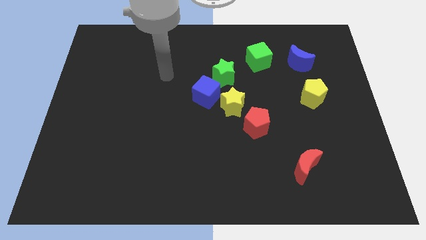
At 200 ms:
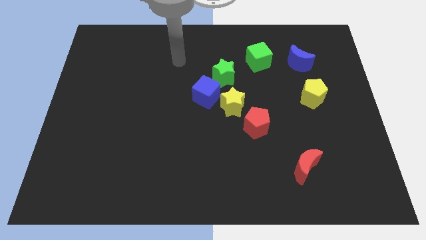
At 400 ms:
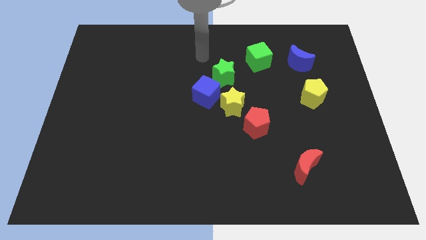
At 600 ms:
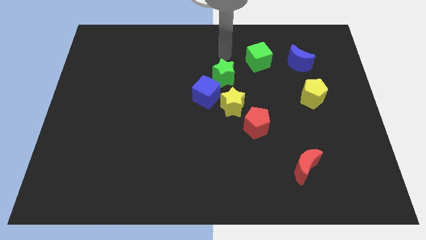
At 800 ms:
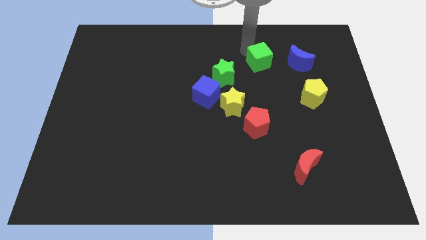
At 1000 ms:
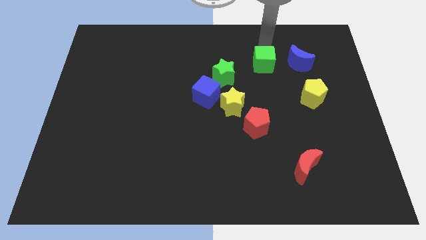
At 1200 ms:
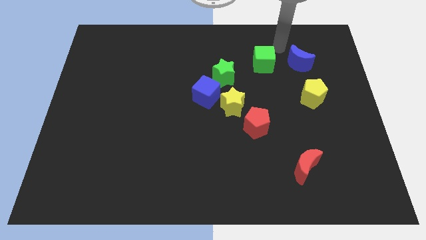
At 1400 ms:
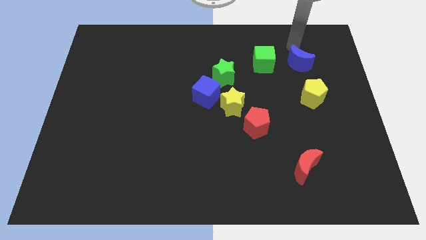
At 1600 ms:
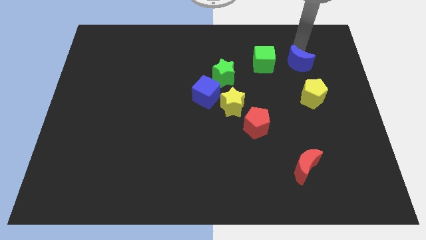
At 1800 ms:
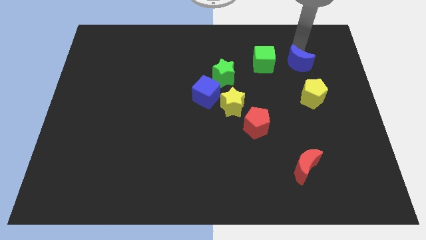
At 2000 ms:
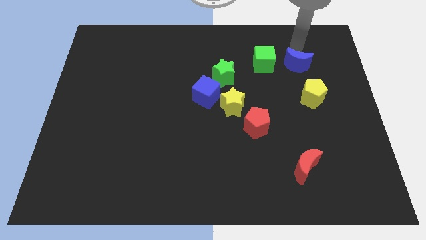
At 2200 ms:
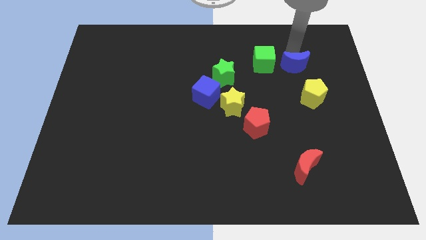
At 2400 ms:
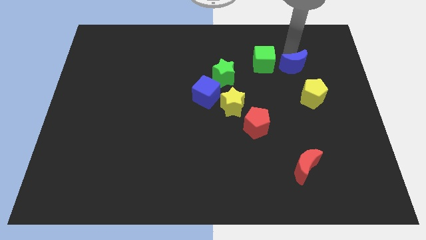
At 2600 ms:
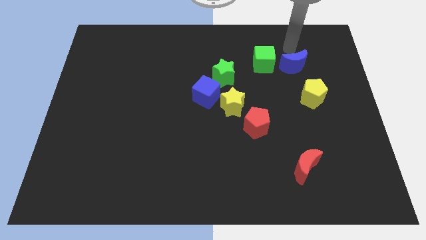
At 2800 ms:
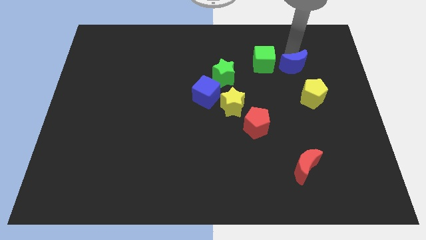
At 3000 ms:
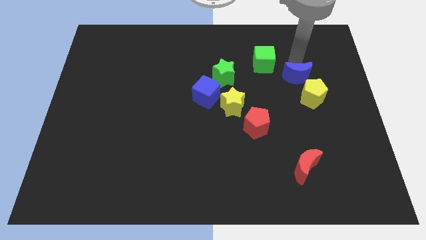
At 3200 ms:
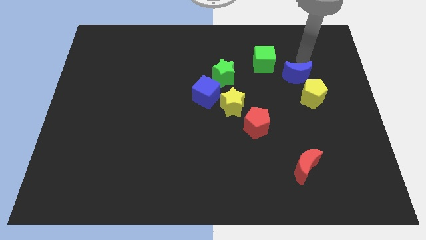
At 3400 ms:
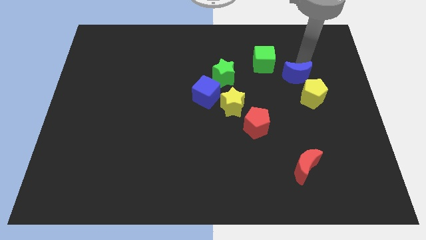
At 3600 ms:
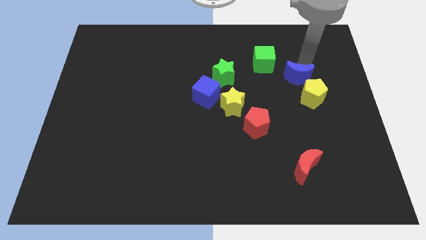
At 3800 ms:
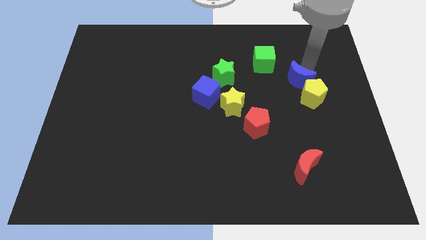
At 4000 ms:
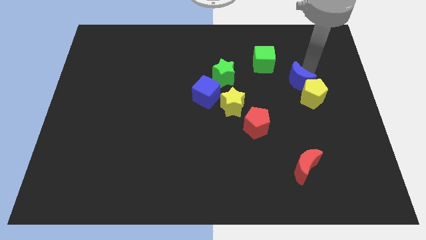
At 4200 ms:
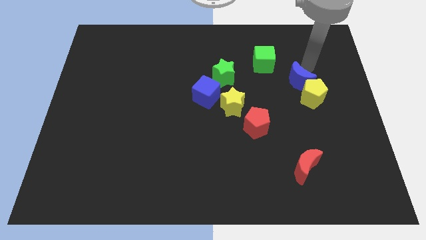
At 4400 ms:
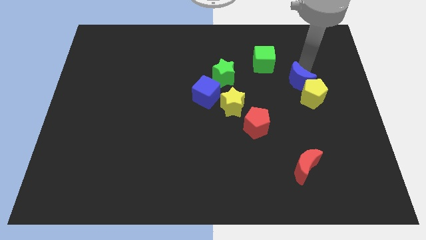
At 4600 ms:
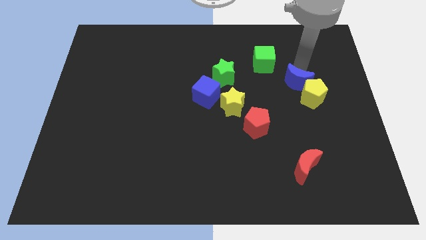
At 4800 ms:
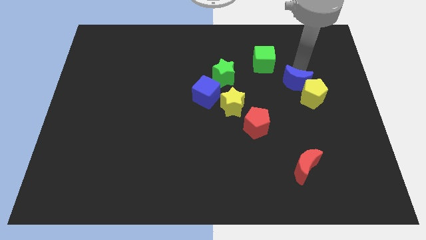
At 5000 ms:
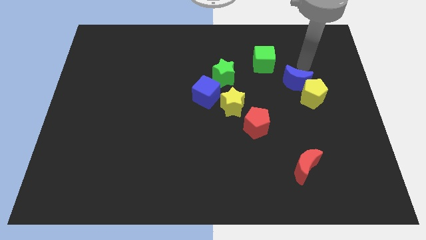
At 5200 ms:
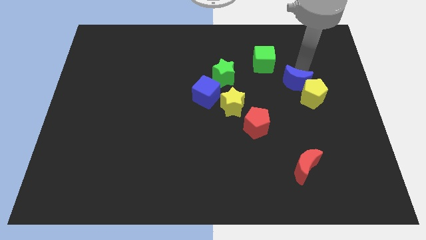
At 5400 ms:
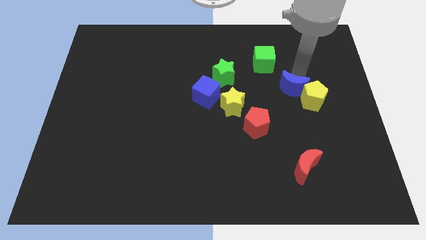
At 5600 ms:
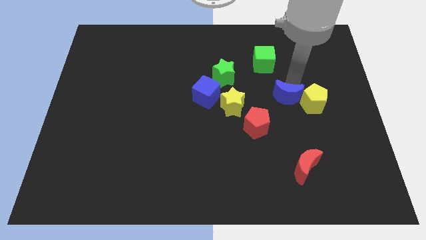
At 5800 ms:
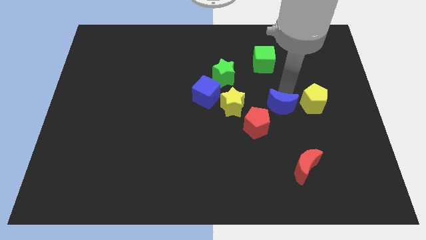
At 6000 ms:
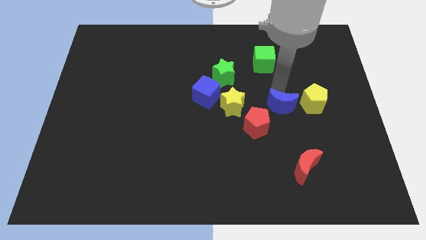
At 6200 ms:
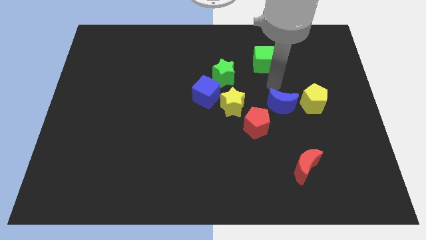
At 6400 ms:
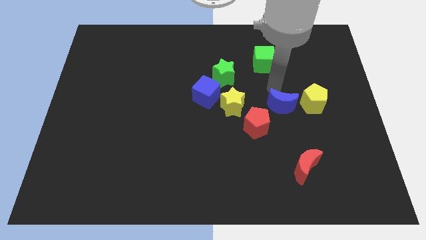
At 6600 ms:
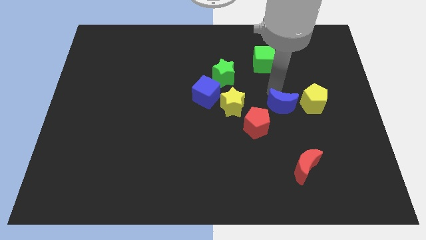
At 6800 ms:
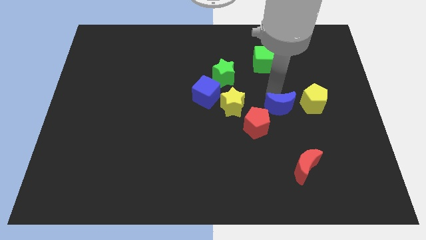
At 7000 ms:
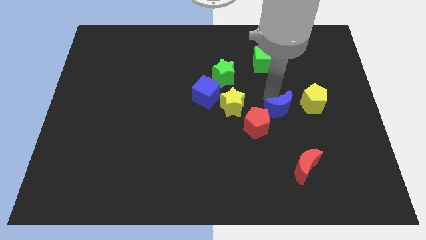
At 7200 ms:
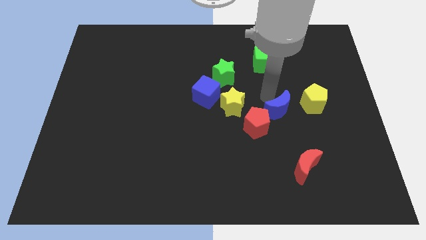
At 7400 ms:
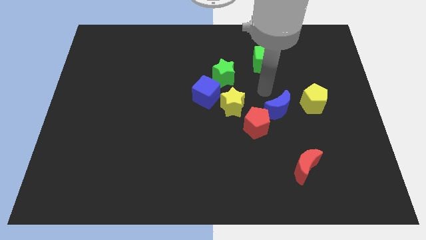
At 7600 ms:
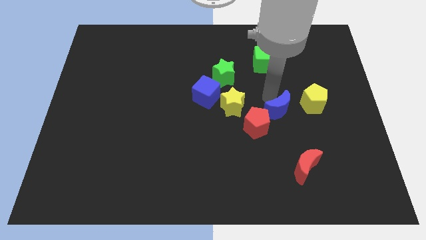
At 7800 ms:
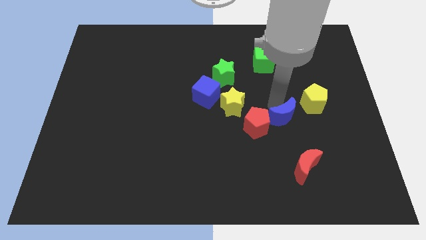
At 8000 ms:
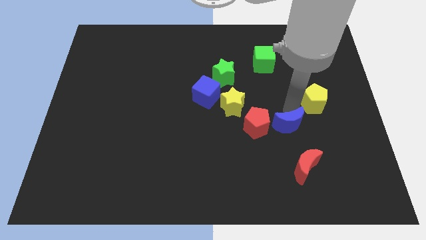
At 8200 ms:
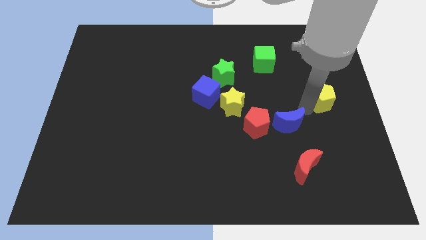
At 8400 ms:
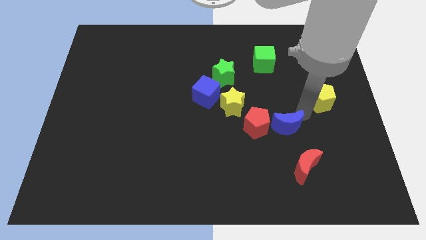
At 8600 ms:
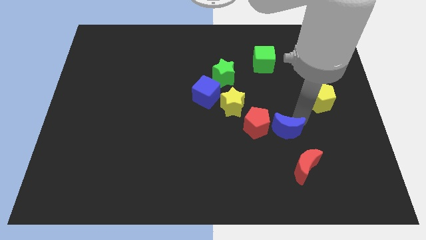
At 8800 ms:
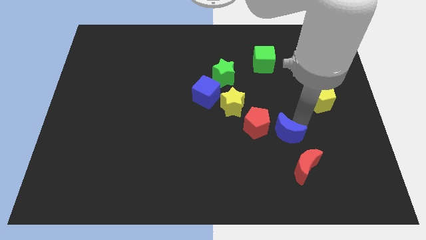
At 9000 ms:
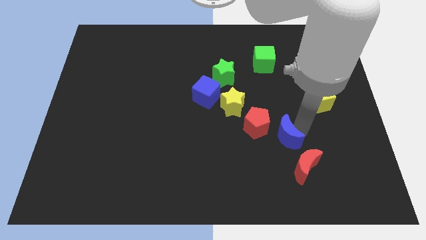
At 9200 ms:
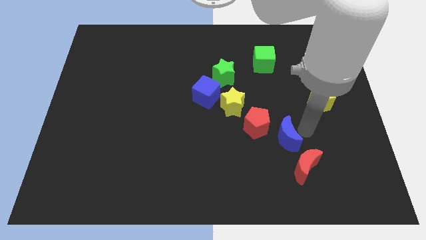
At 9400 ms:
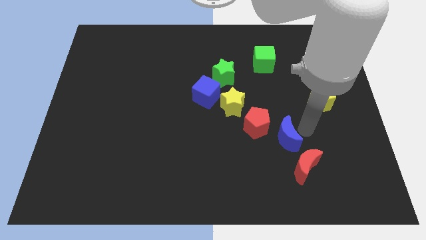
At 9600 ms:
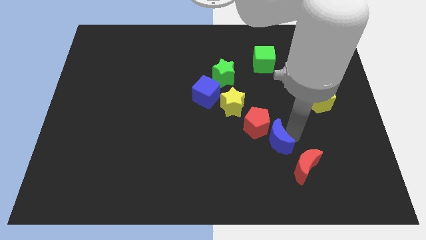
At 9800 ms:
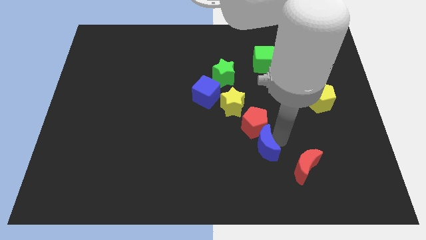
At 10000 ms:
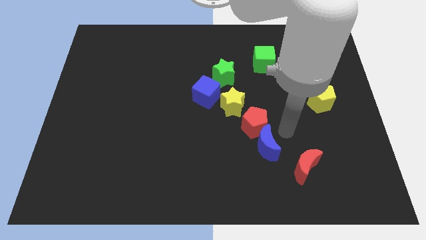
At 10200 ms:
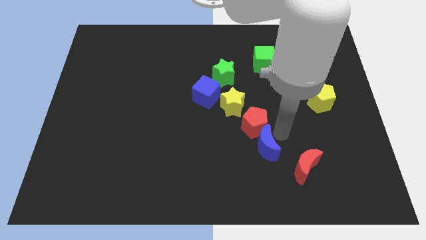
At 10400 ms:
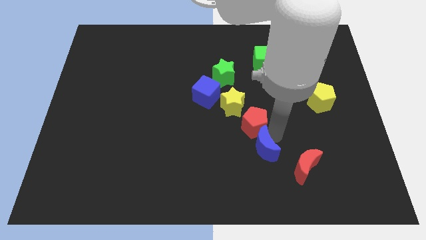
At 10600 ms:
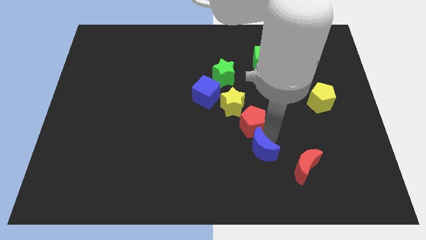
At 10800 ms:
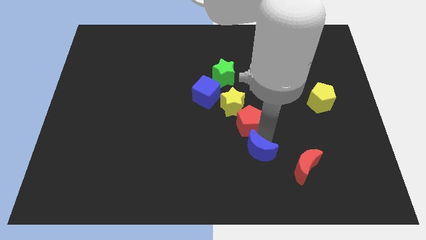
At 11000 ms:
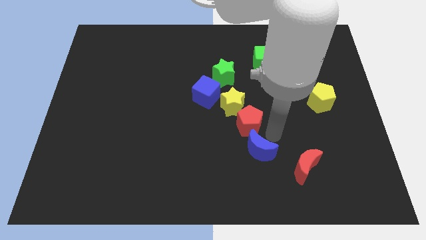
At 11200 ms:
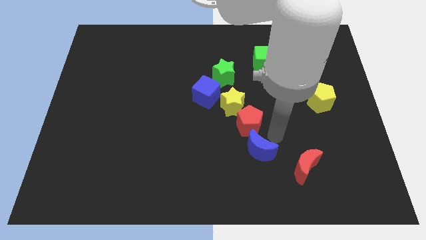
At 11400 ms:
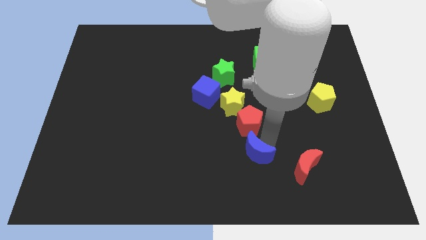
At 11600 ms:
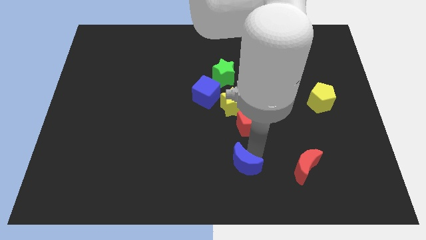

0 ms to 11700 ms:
put the blue moon to the bottom

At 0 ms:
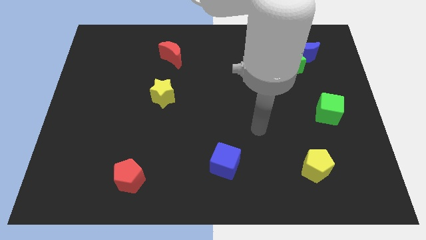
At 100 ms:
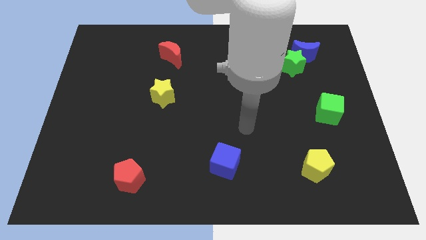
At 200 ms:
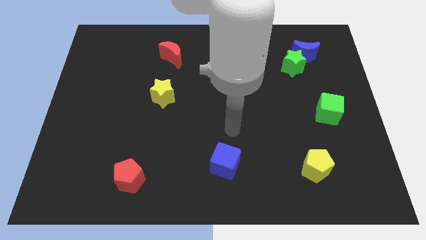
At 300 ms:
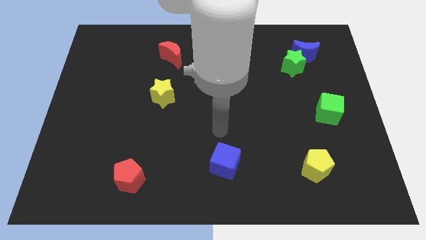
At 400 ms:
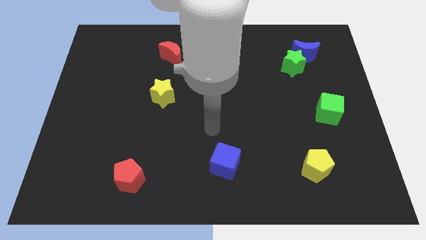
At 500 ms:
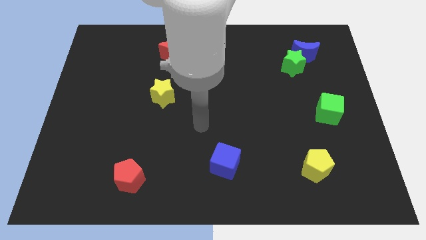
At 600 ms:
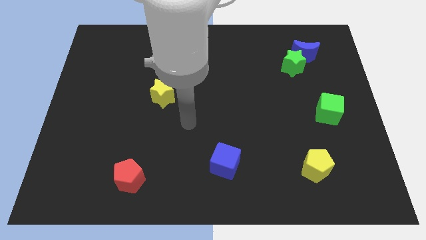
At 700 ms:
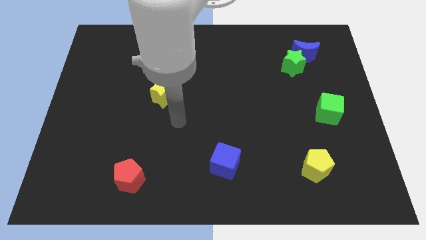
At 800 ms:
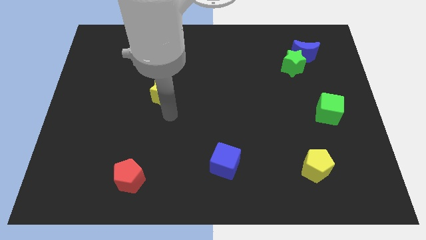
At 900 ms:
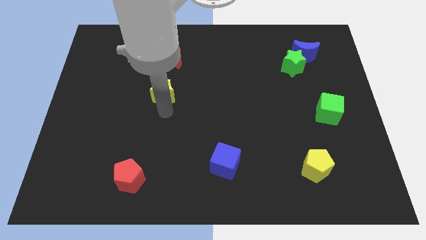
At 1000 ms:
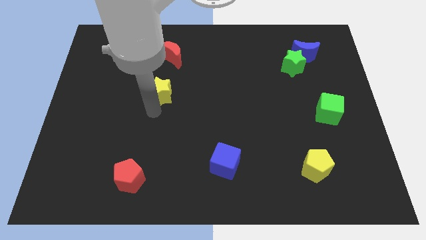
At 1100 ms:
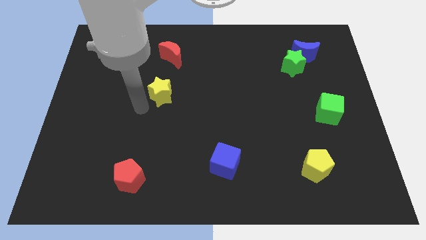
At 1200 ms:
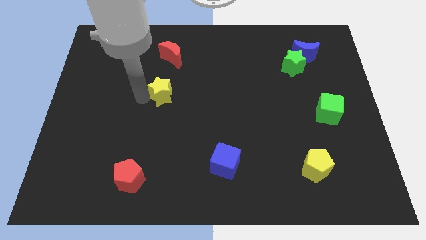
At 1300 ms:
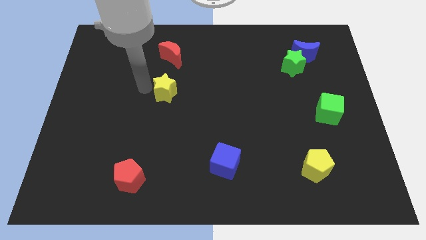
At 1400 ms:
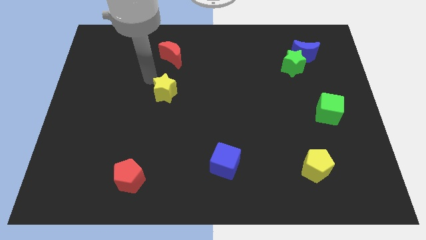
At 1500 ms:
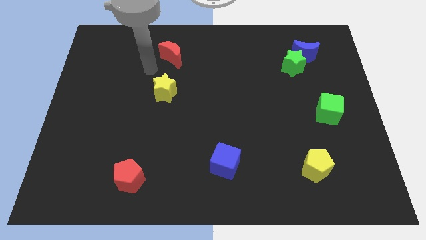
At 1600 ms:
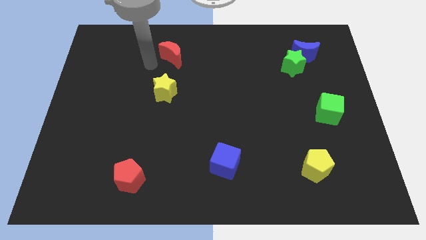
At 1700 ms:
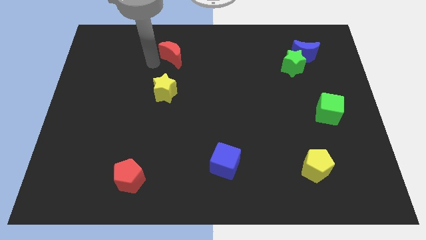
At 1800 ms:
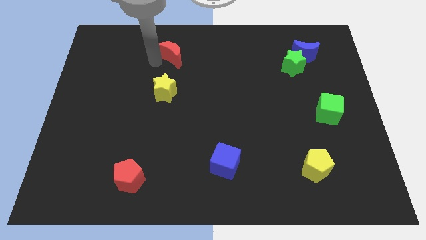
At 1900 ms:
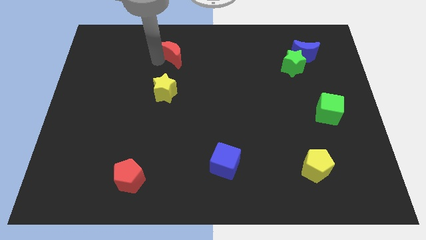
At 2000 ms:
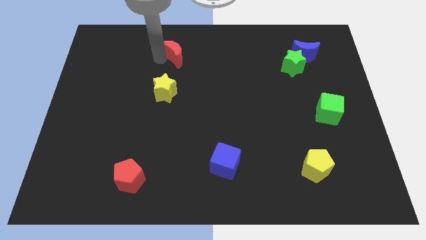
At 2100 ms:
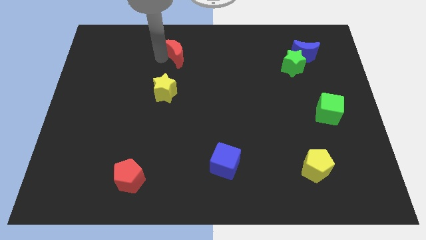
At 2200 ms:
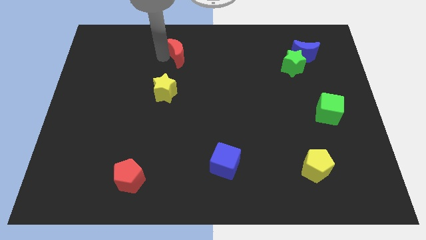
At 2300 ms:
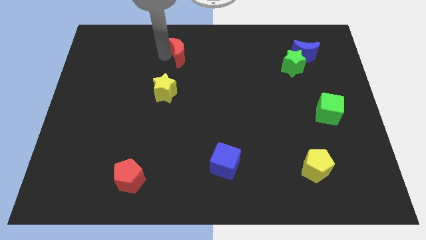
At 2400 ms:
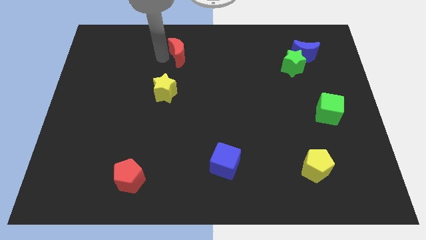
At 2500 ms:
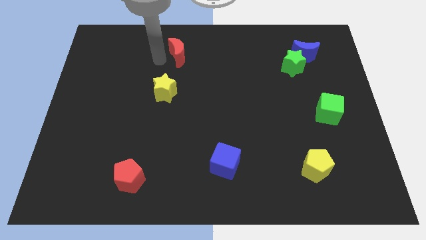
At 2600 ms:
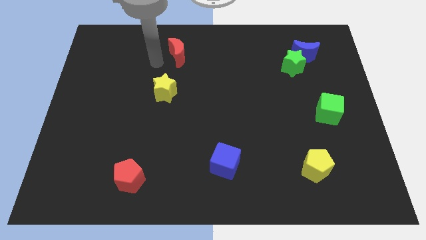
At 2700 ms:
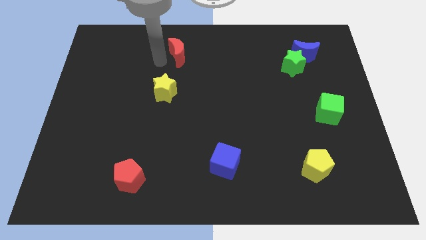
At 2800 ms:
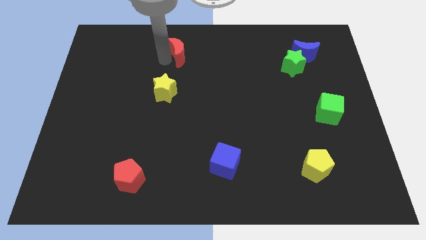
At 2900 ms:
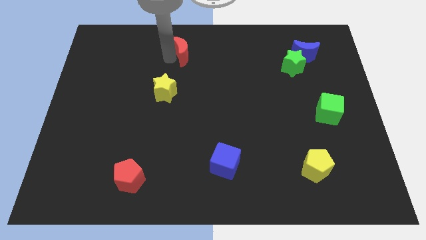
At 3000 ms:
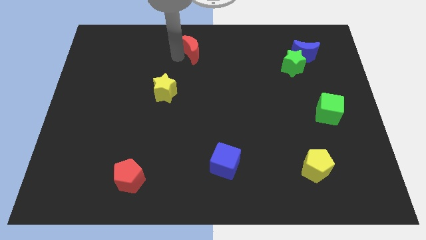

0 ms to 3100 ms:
put the red moon to the towards your base
